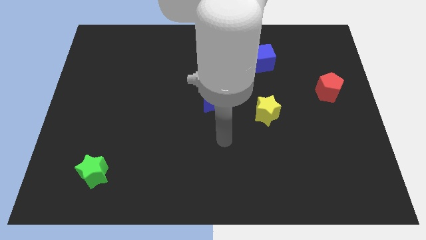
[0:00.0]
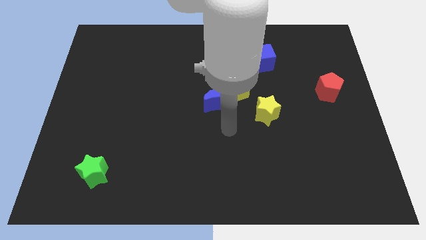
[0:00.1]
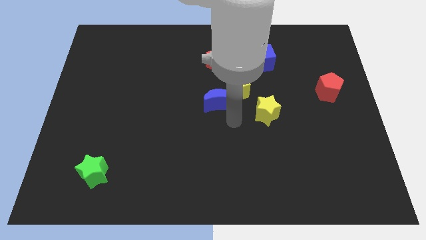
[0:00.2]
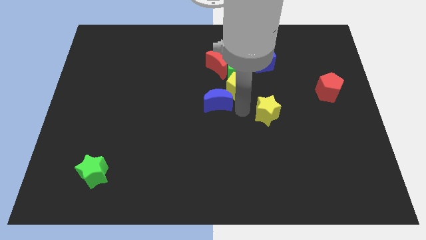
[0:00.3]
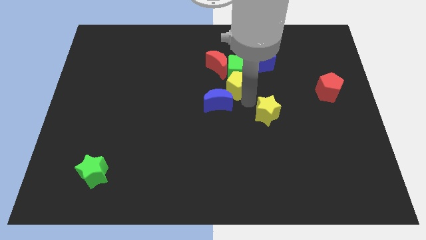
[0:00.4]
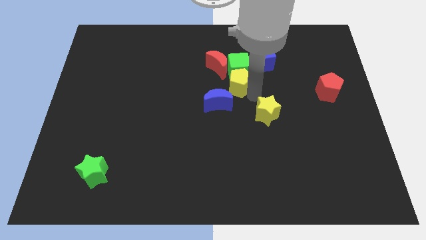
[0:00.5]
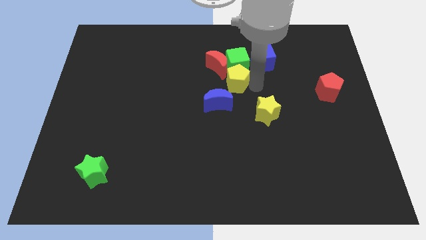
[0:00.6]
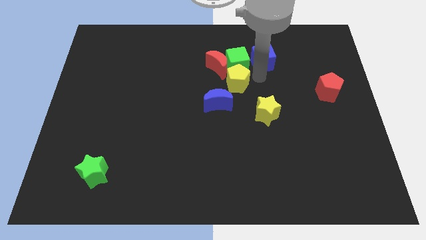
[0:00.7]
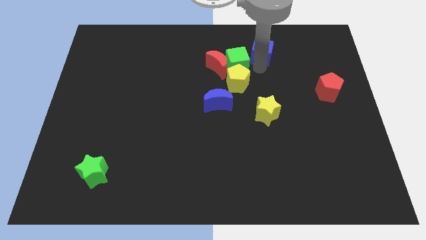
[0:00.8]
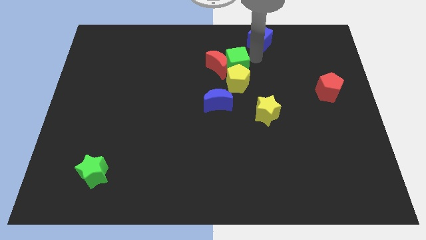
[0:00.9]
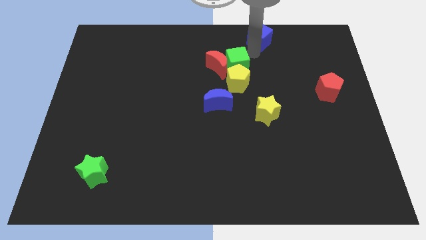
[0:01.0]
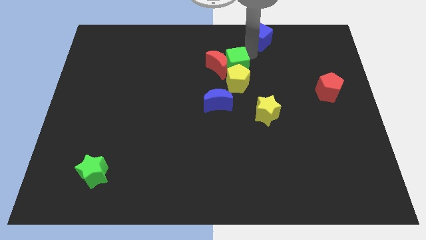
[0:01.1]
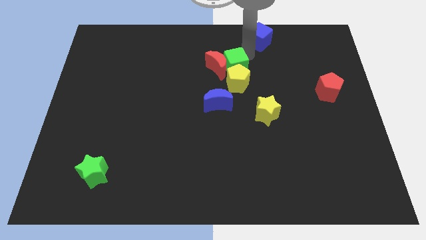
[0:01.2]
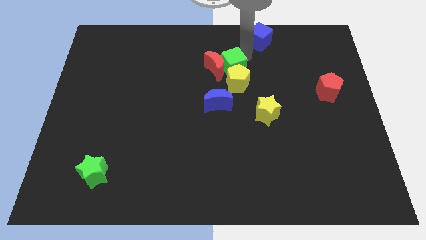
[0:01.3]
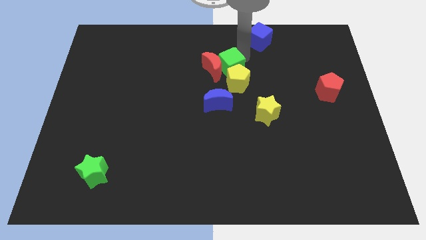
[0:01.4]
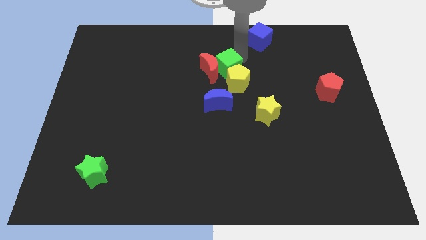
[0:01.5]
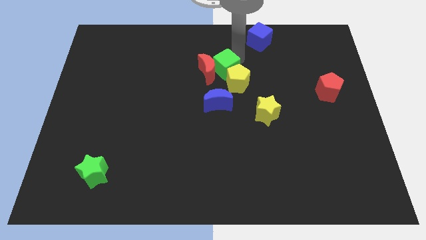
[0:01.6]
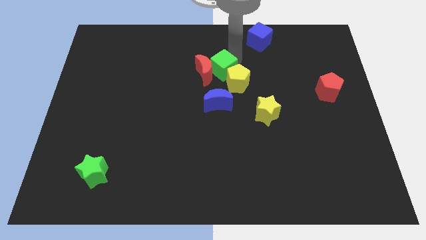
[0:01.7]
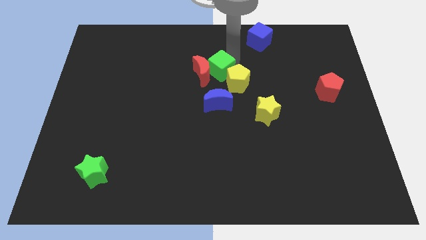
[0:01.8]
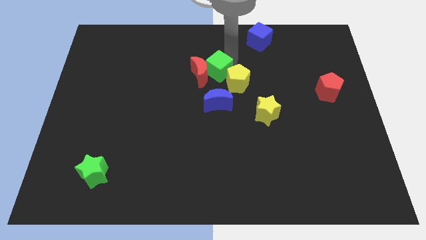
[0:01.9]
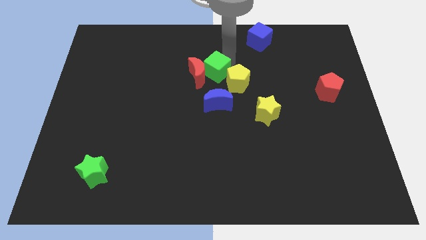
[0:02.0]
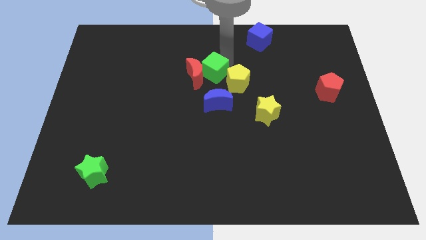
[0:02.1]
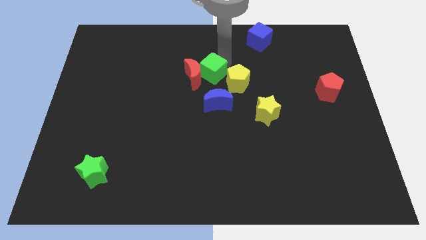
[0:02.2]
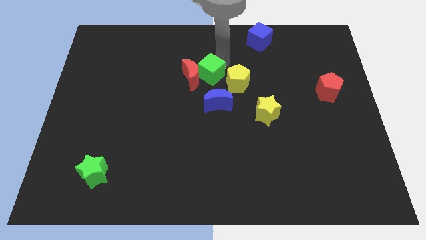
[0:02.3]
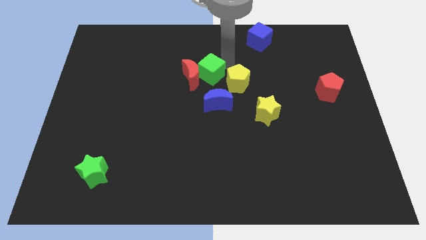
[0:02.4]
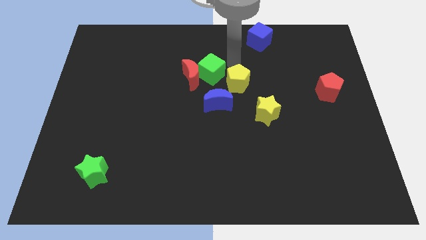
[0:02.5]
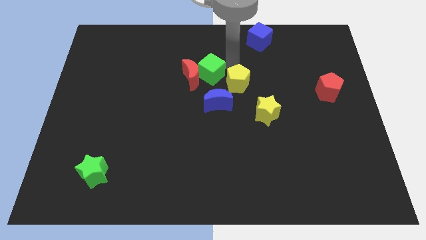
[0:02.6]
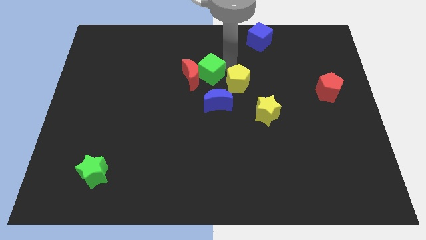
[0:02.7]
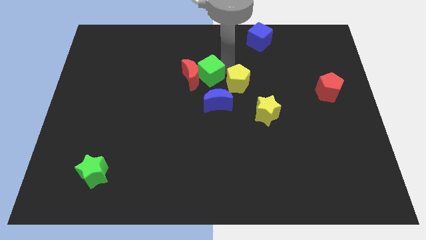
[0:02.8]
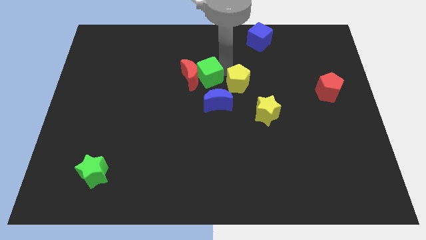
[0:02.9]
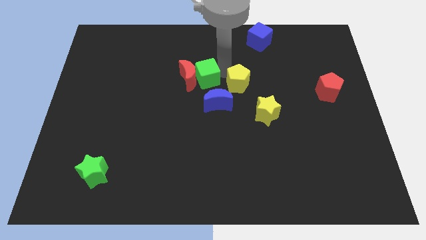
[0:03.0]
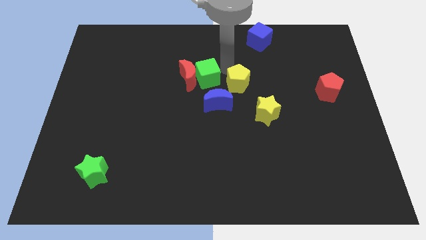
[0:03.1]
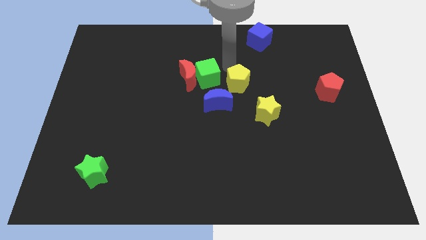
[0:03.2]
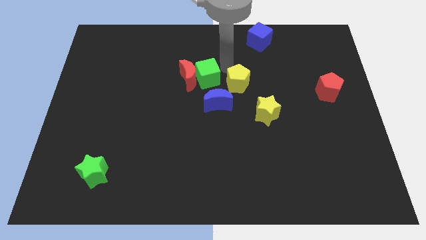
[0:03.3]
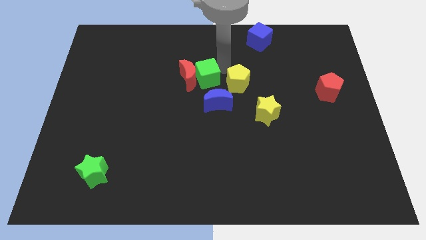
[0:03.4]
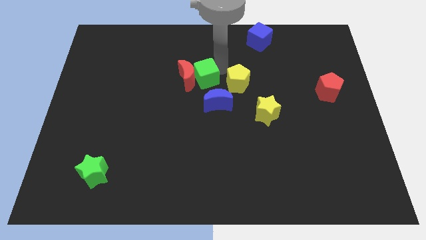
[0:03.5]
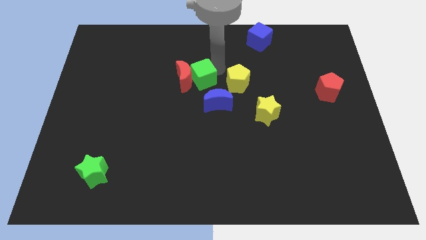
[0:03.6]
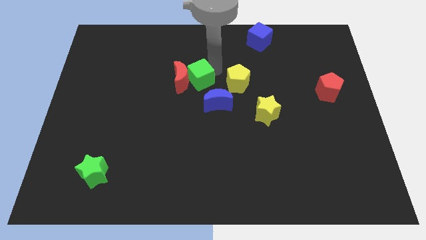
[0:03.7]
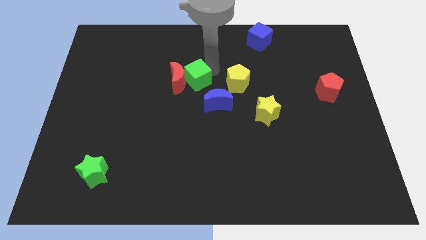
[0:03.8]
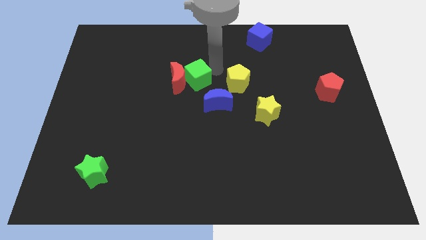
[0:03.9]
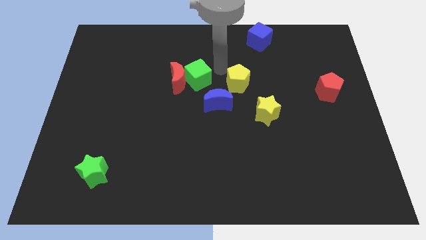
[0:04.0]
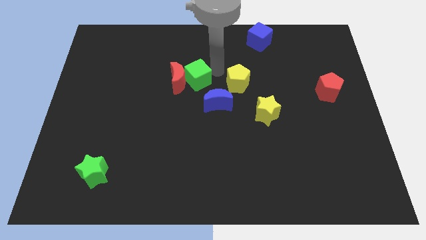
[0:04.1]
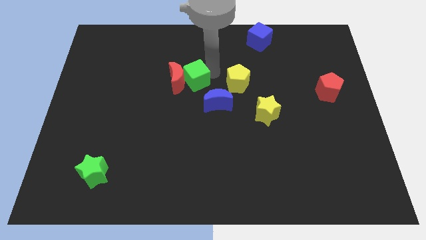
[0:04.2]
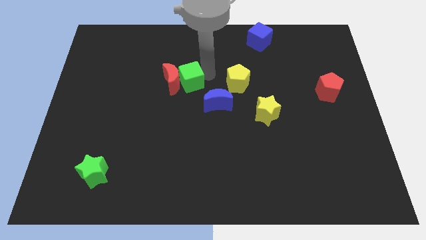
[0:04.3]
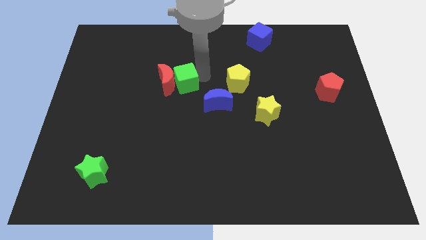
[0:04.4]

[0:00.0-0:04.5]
separate the green cube from the group

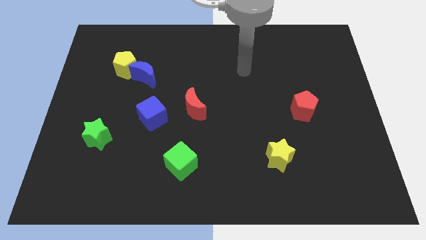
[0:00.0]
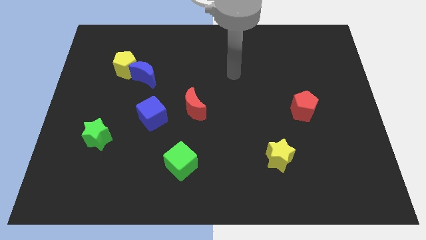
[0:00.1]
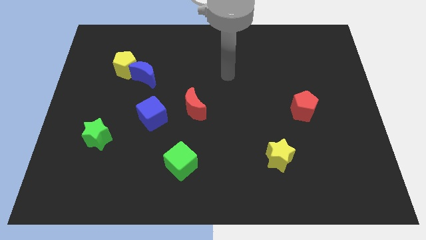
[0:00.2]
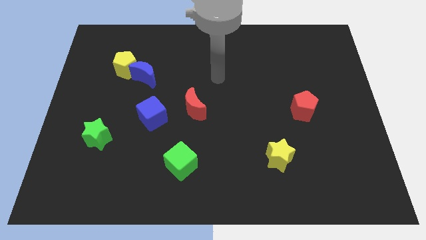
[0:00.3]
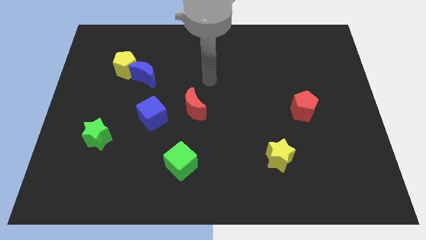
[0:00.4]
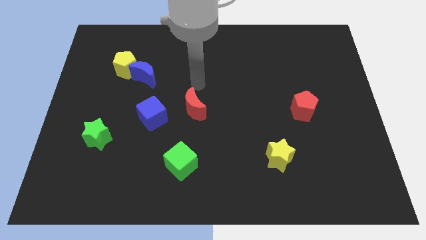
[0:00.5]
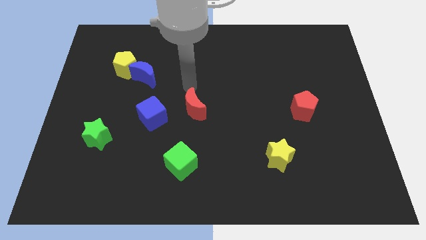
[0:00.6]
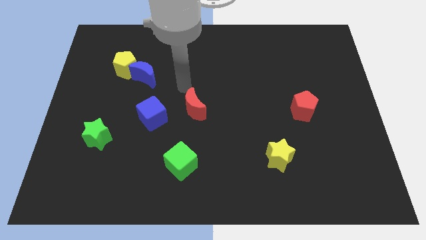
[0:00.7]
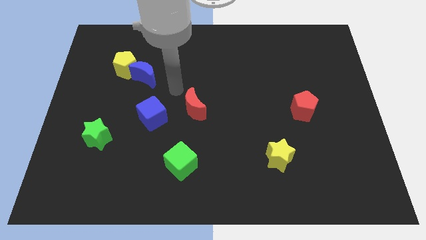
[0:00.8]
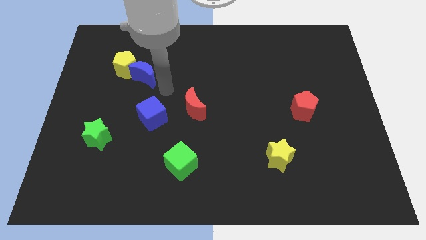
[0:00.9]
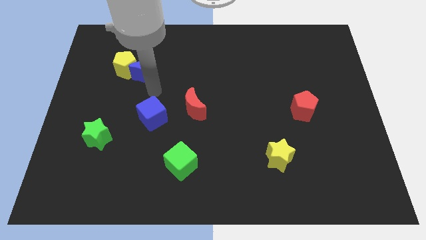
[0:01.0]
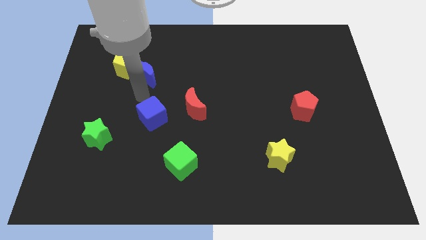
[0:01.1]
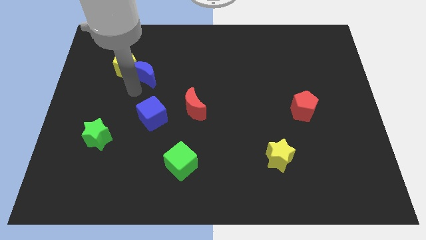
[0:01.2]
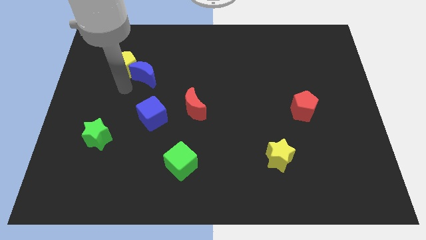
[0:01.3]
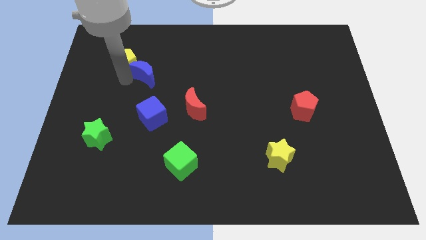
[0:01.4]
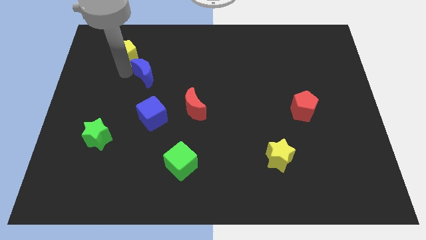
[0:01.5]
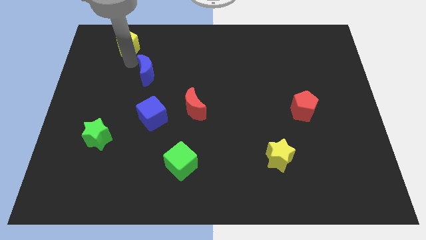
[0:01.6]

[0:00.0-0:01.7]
pull the blue moon apart from the yellow pentagon

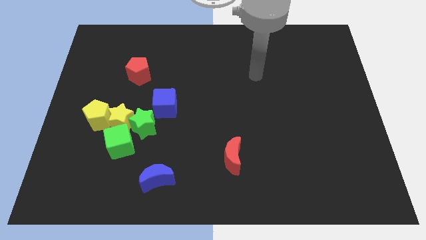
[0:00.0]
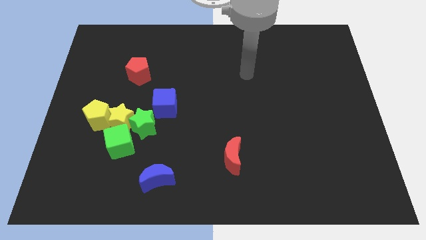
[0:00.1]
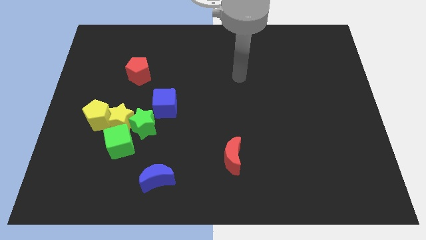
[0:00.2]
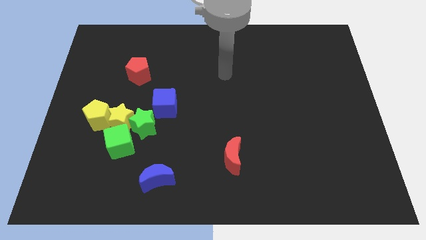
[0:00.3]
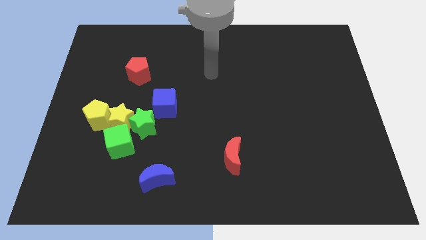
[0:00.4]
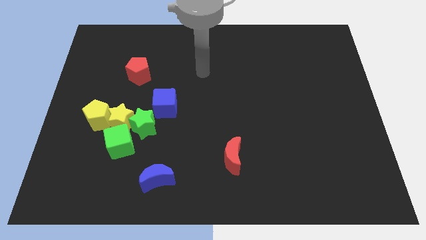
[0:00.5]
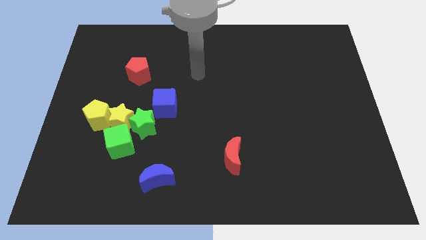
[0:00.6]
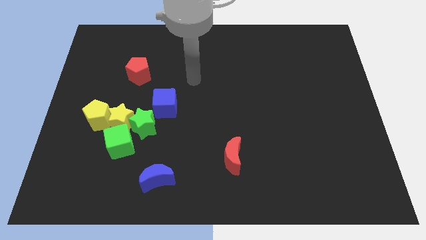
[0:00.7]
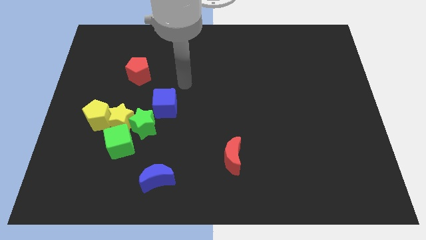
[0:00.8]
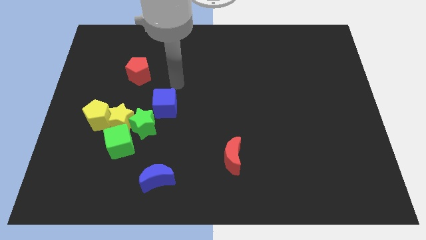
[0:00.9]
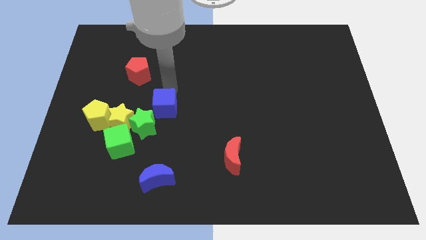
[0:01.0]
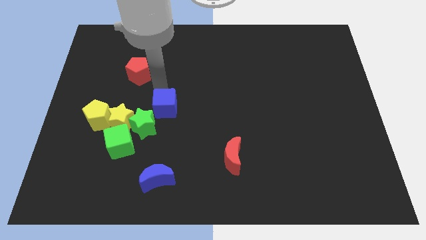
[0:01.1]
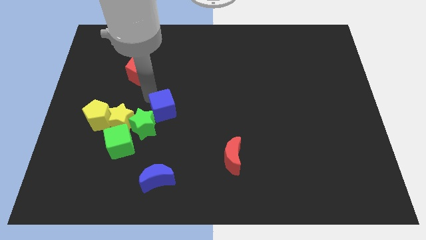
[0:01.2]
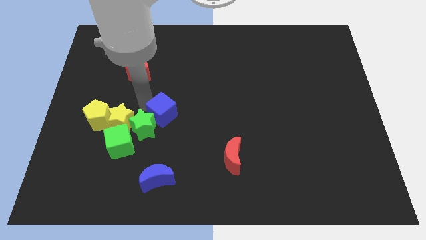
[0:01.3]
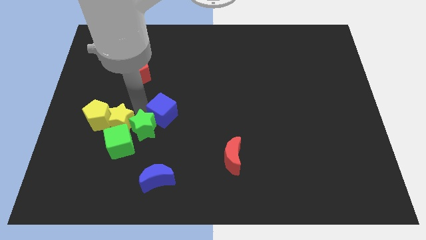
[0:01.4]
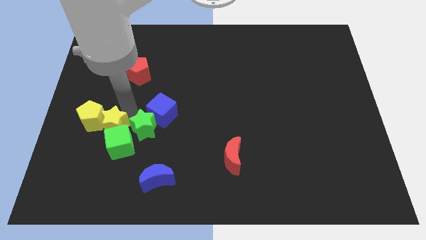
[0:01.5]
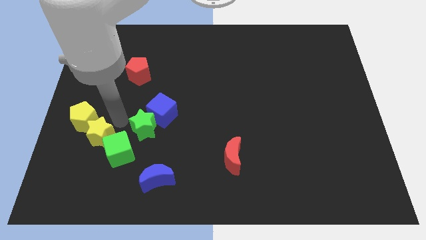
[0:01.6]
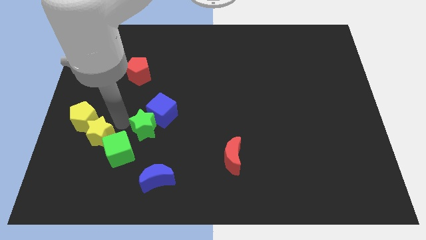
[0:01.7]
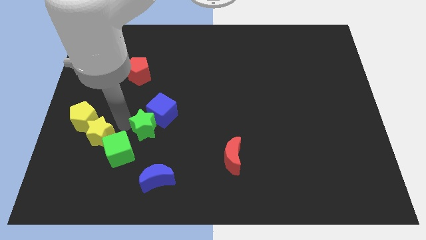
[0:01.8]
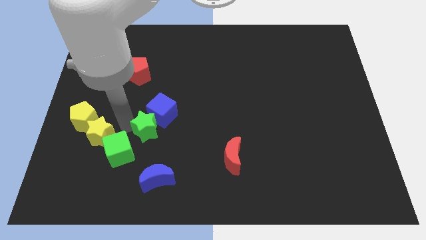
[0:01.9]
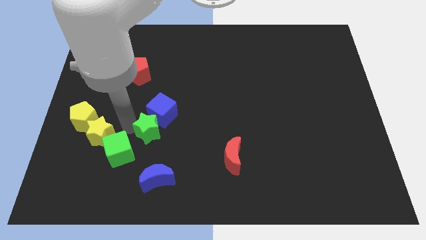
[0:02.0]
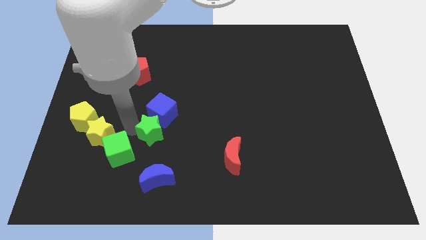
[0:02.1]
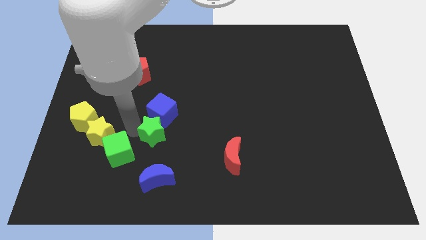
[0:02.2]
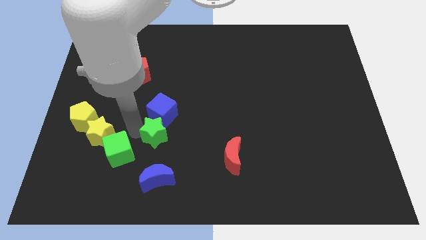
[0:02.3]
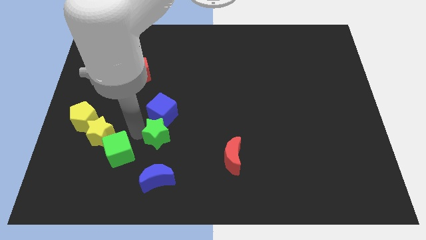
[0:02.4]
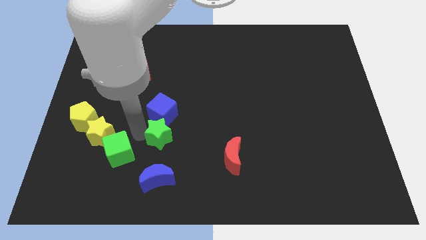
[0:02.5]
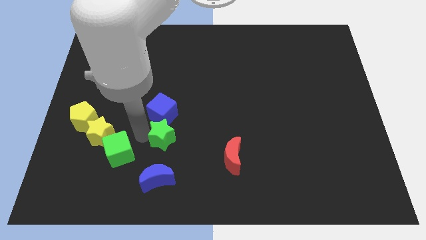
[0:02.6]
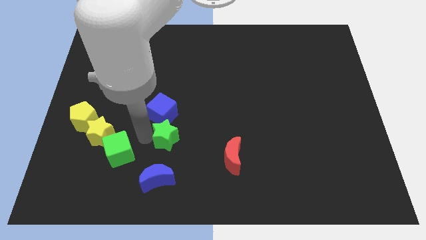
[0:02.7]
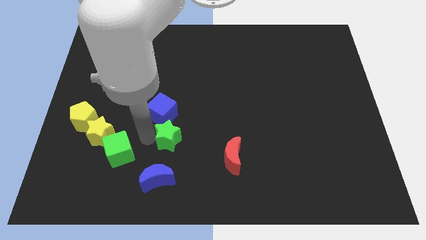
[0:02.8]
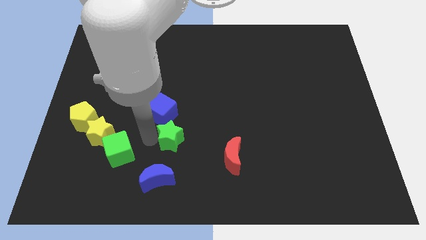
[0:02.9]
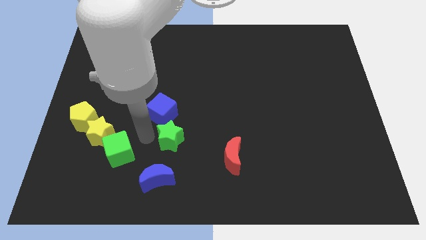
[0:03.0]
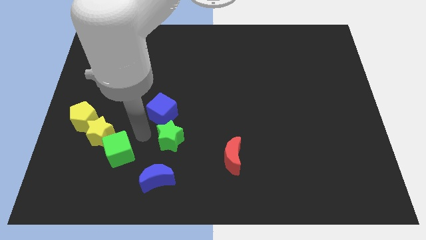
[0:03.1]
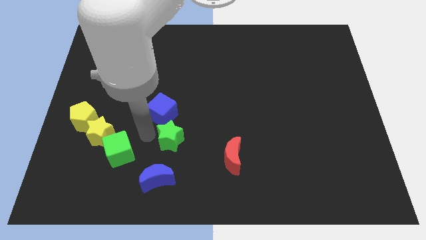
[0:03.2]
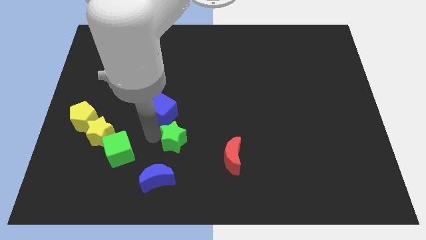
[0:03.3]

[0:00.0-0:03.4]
separate the green star from the group of blocks
